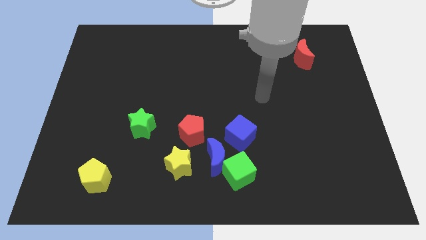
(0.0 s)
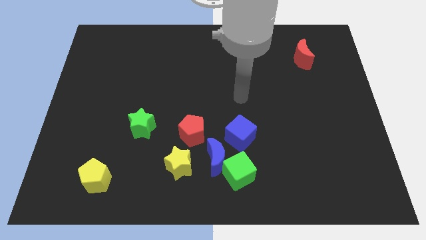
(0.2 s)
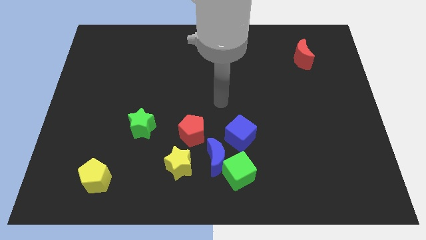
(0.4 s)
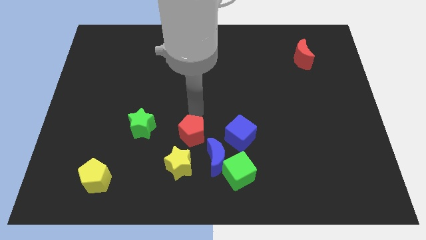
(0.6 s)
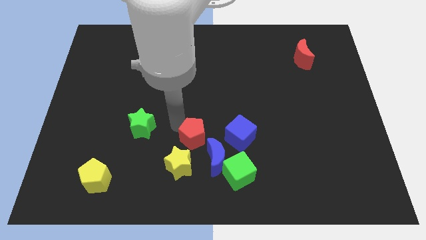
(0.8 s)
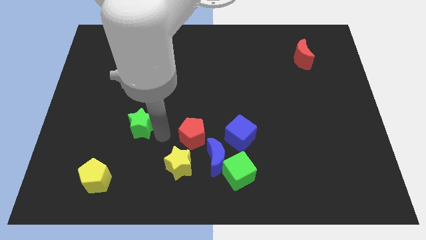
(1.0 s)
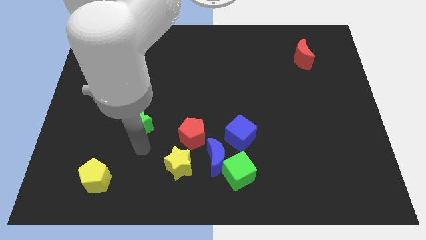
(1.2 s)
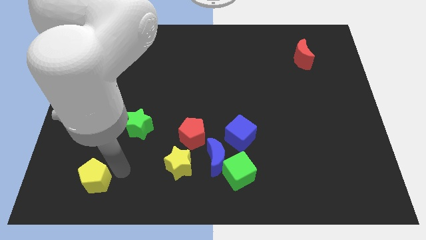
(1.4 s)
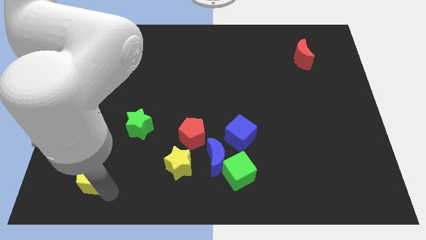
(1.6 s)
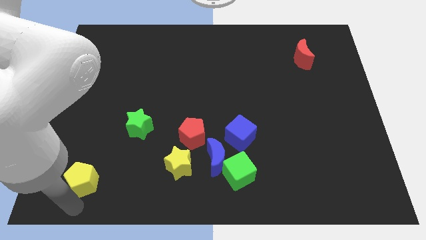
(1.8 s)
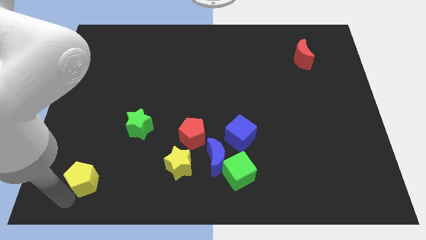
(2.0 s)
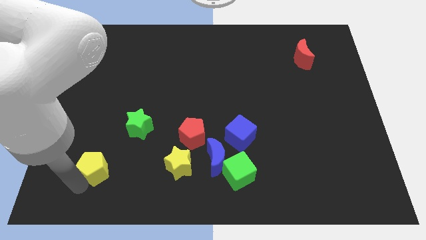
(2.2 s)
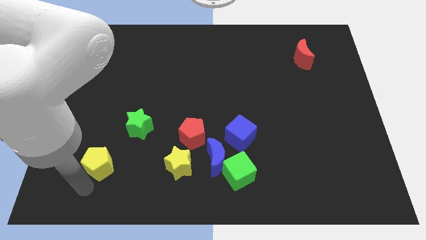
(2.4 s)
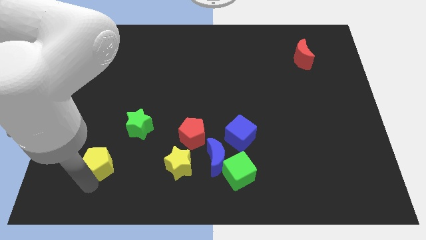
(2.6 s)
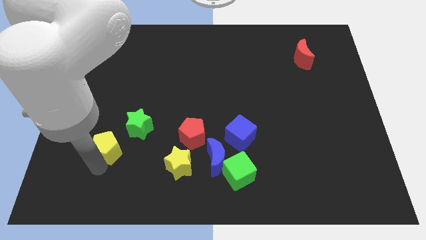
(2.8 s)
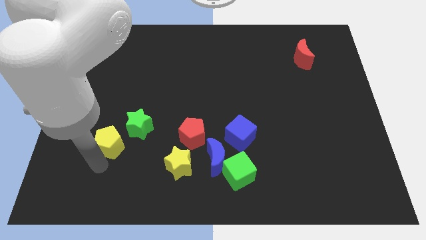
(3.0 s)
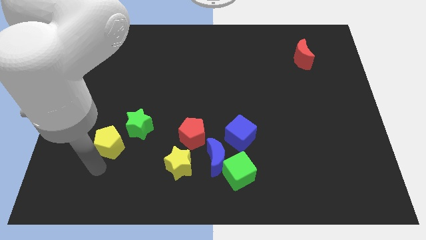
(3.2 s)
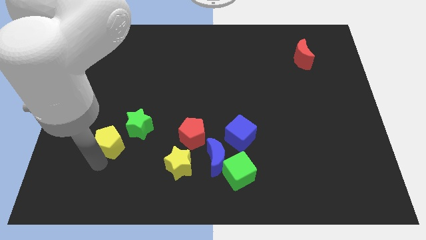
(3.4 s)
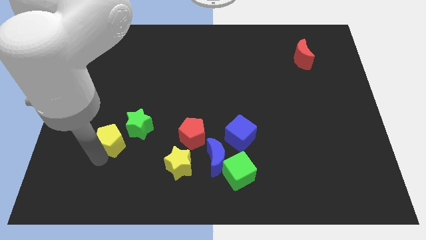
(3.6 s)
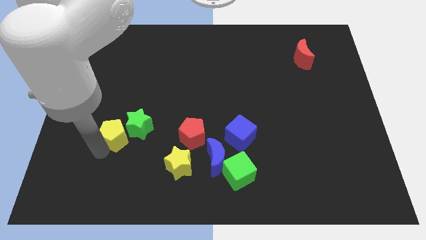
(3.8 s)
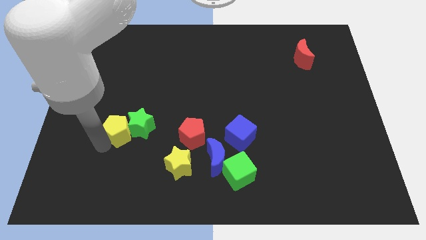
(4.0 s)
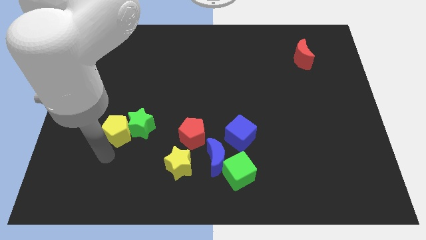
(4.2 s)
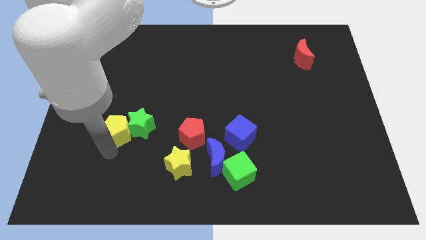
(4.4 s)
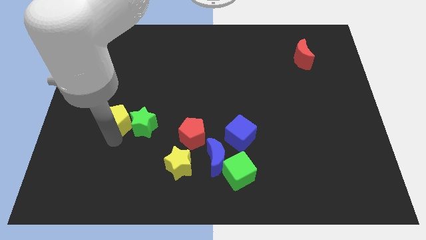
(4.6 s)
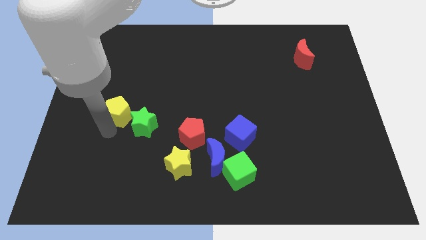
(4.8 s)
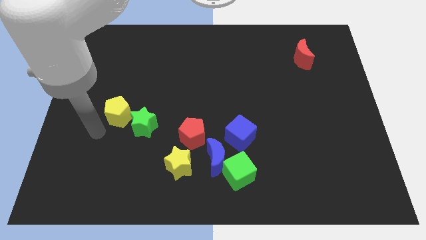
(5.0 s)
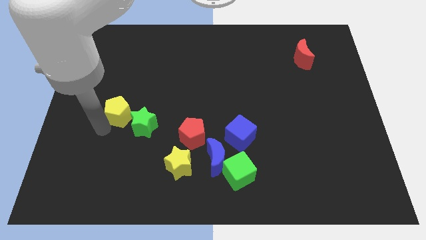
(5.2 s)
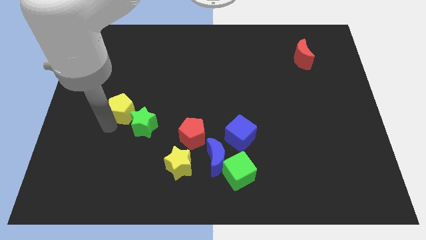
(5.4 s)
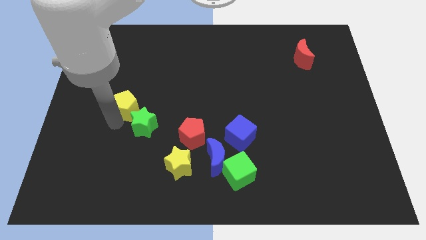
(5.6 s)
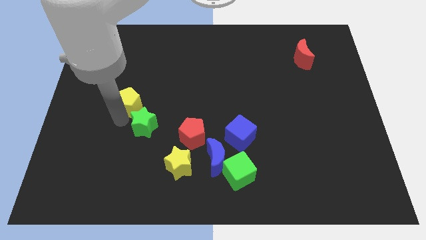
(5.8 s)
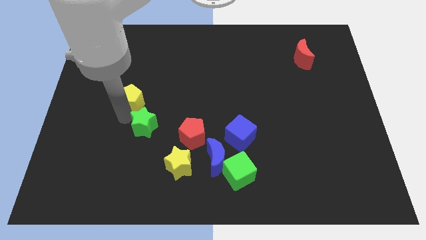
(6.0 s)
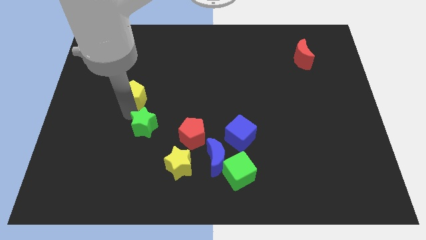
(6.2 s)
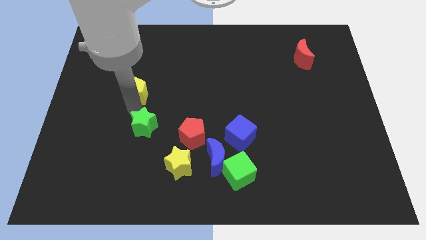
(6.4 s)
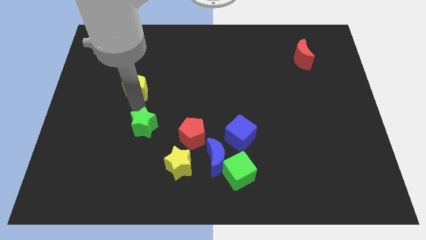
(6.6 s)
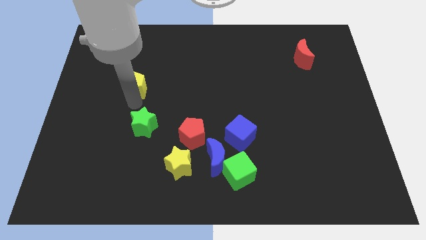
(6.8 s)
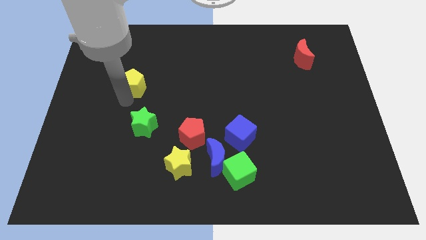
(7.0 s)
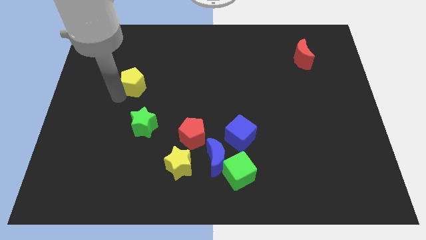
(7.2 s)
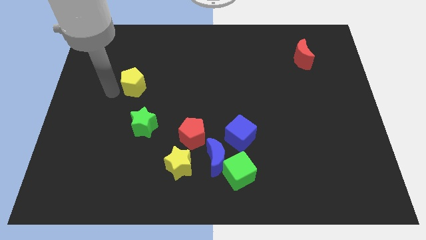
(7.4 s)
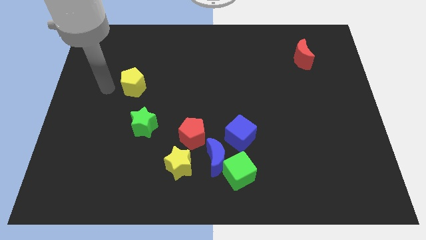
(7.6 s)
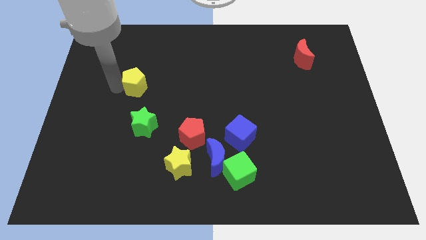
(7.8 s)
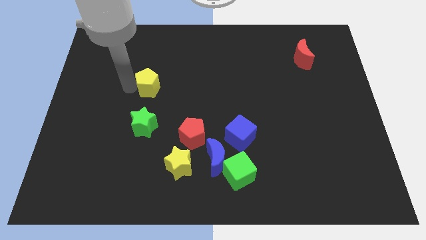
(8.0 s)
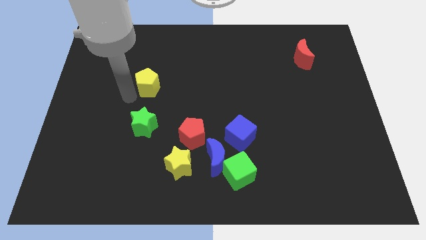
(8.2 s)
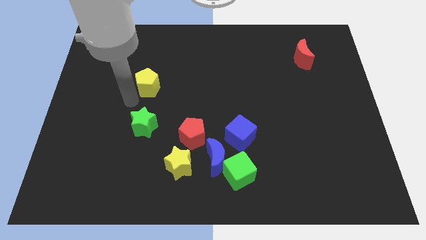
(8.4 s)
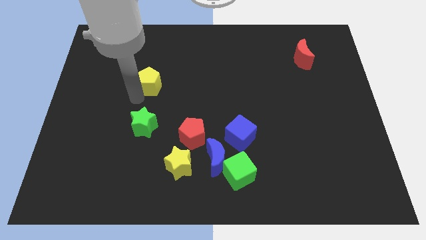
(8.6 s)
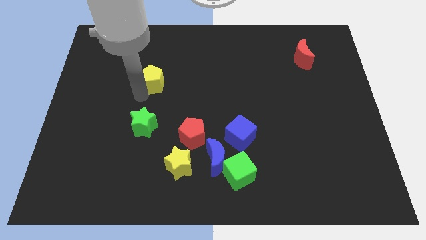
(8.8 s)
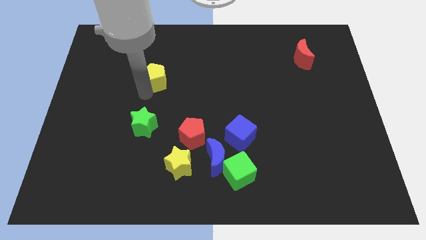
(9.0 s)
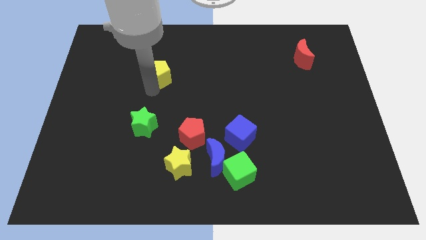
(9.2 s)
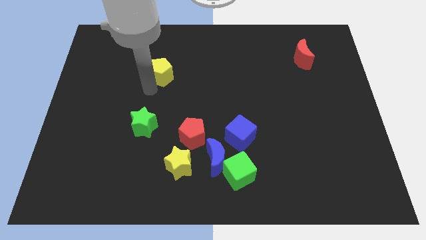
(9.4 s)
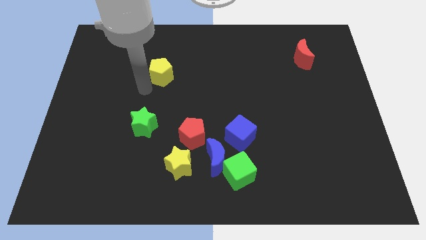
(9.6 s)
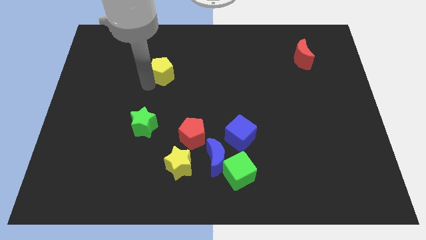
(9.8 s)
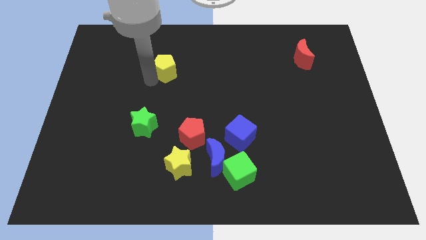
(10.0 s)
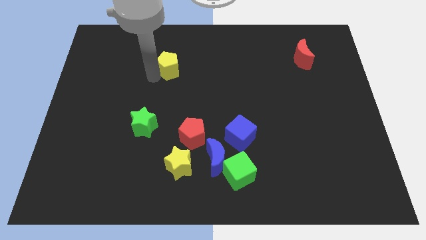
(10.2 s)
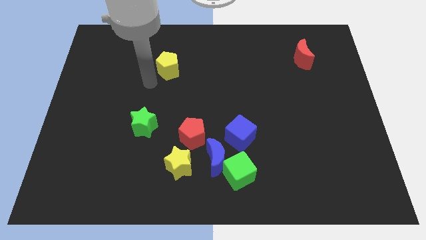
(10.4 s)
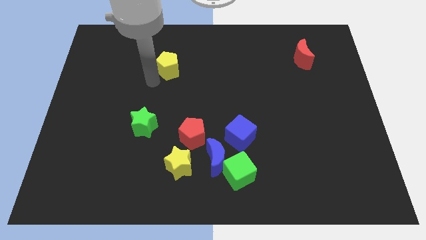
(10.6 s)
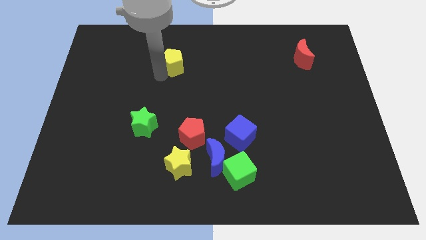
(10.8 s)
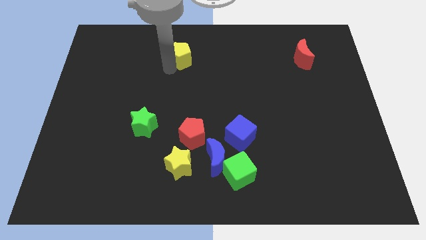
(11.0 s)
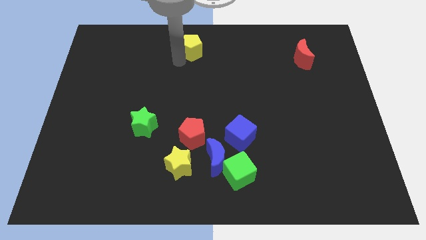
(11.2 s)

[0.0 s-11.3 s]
put the yellow pentagon to the towards your base

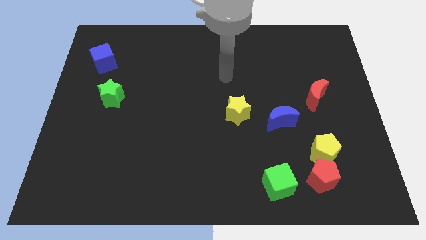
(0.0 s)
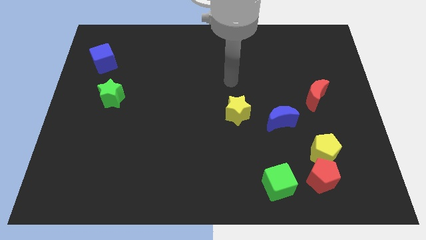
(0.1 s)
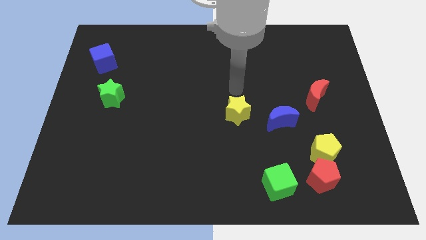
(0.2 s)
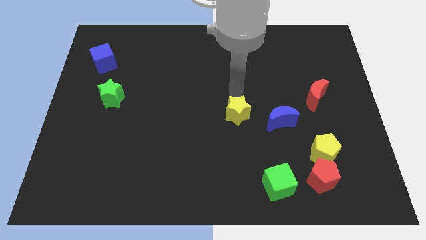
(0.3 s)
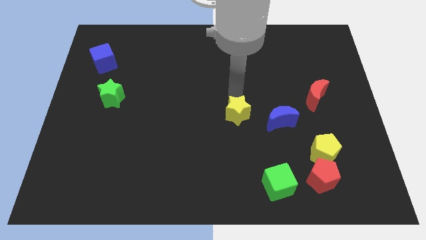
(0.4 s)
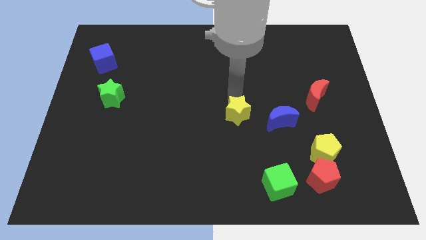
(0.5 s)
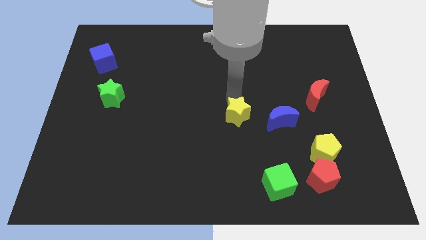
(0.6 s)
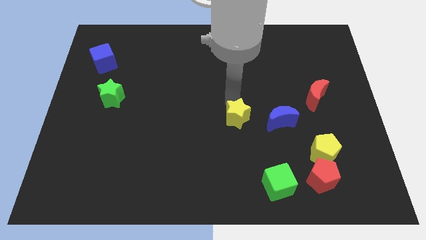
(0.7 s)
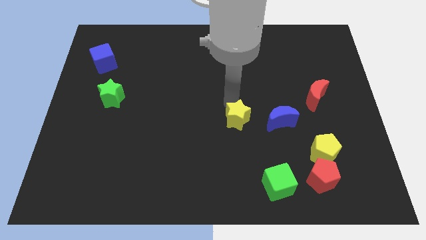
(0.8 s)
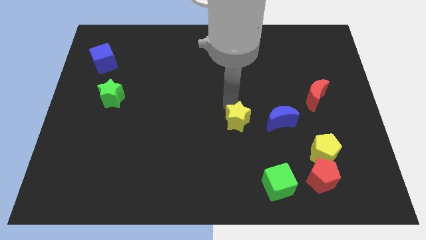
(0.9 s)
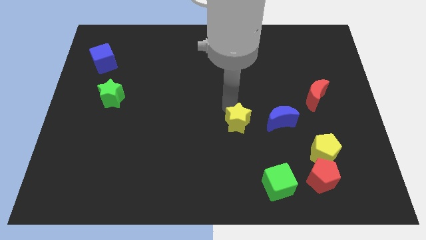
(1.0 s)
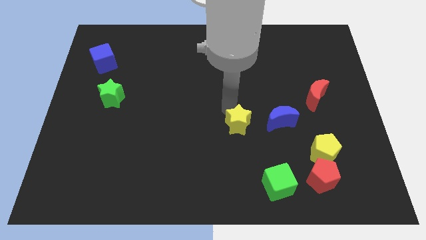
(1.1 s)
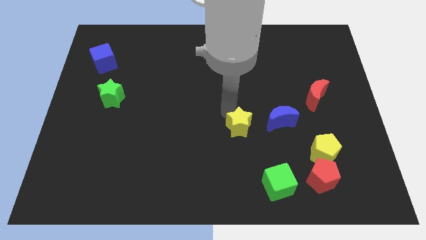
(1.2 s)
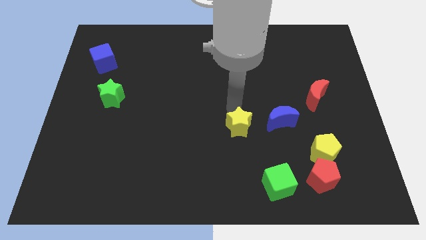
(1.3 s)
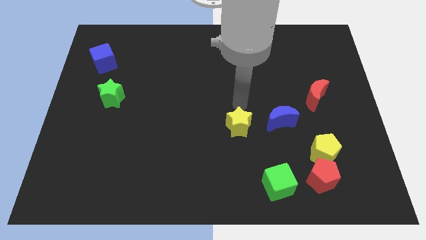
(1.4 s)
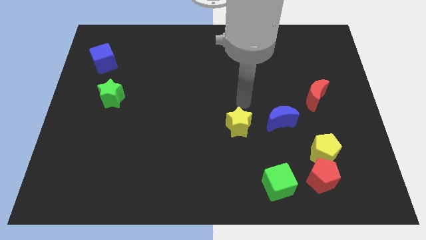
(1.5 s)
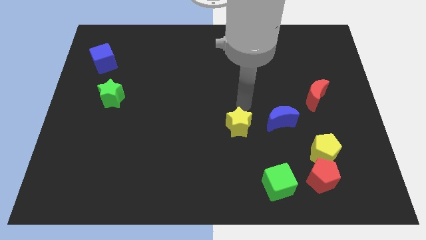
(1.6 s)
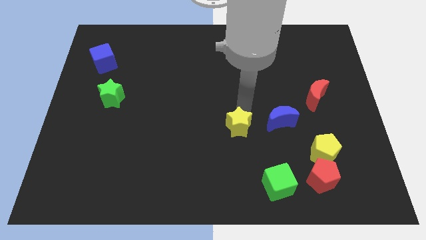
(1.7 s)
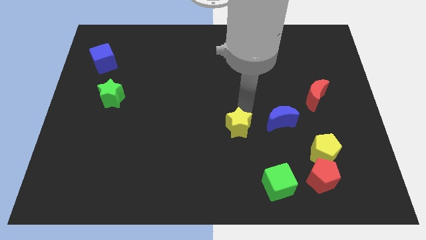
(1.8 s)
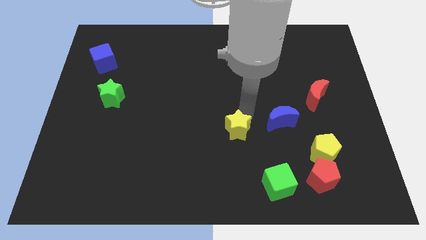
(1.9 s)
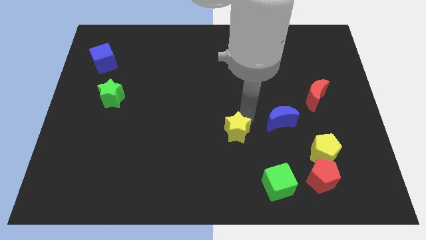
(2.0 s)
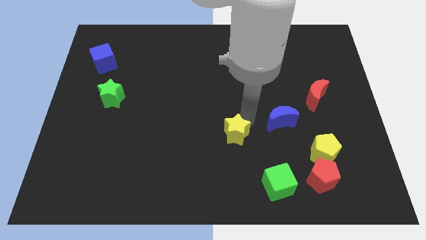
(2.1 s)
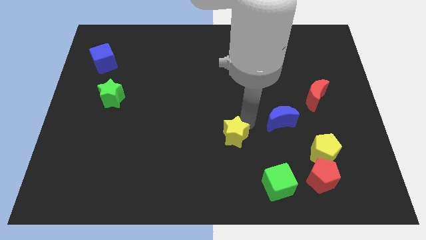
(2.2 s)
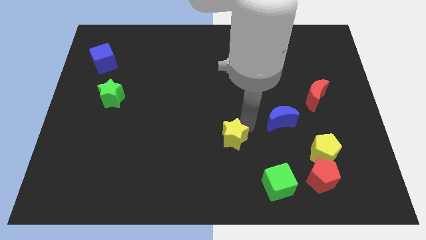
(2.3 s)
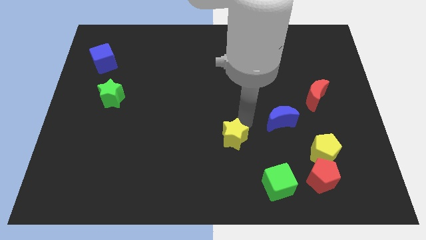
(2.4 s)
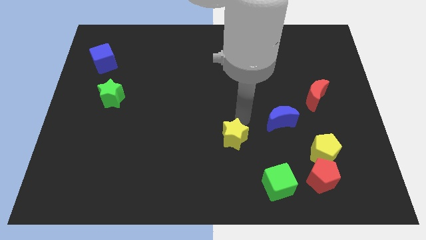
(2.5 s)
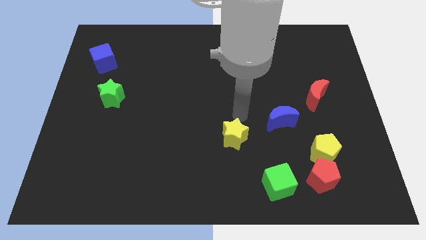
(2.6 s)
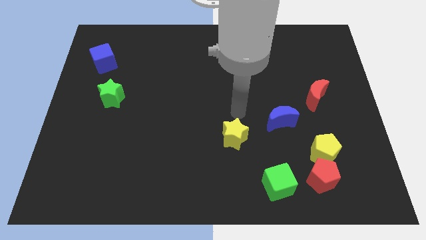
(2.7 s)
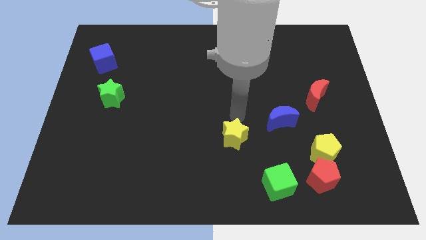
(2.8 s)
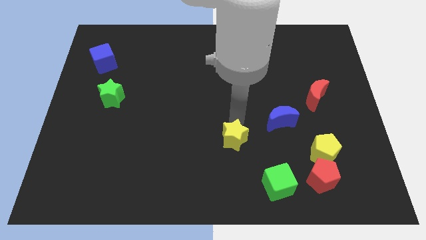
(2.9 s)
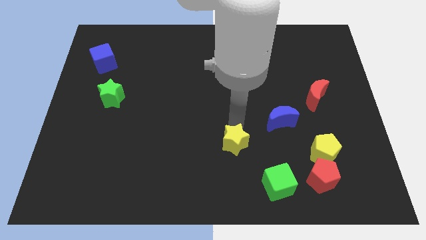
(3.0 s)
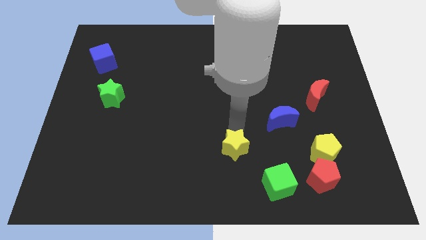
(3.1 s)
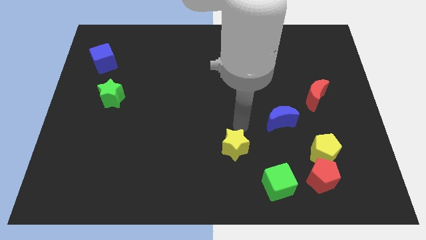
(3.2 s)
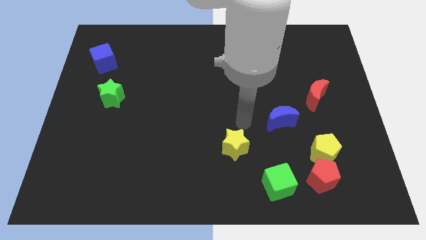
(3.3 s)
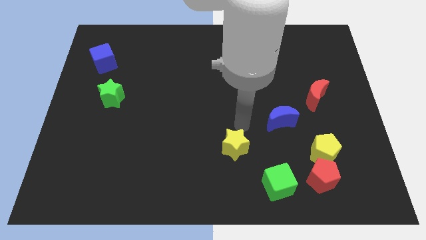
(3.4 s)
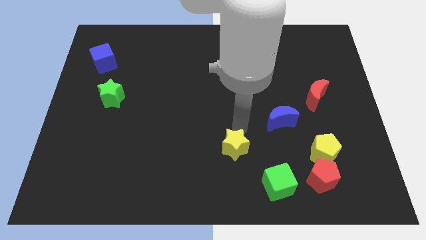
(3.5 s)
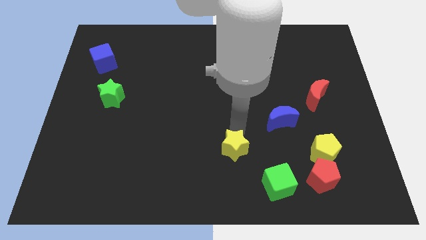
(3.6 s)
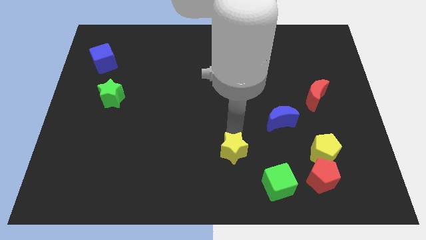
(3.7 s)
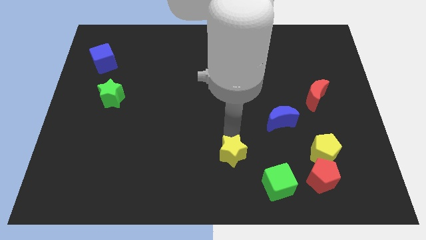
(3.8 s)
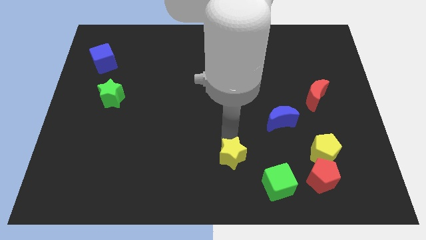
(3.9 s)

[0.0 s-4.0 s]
move the yellow star to the bottom
